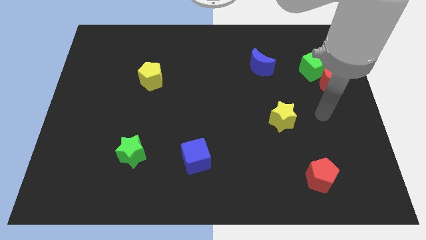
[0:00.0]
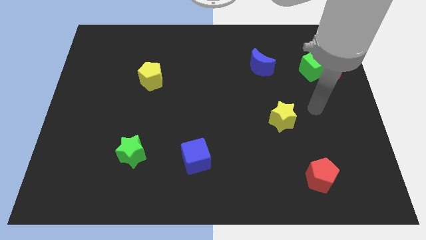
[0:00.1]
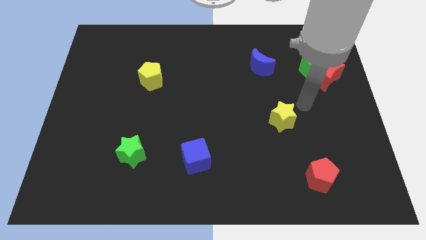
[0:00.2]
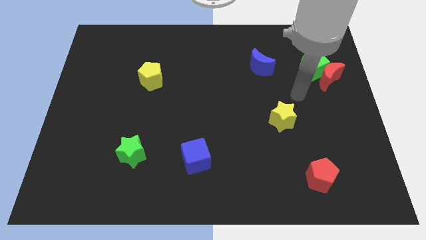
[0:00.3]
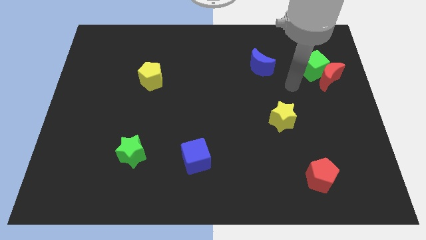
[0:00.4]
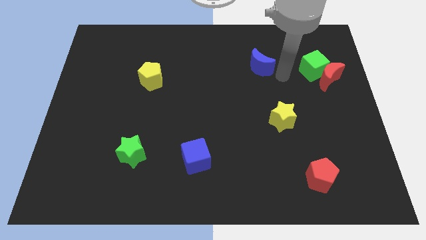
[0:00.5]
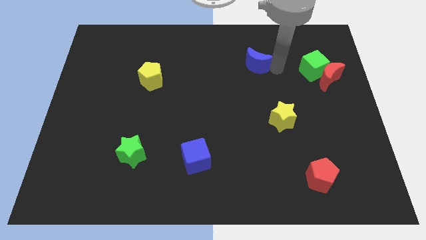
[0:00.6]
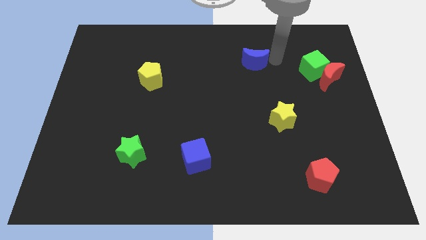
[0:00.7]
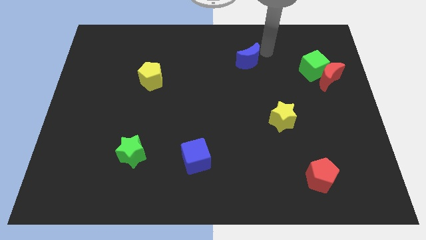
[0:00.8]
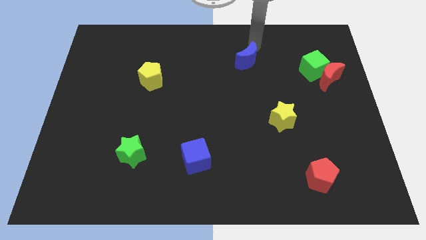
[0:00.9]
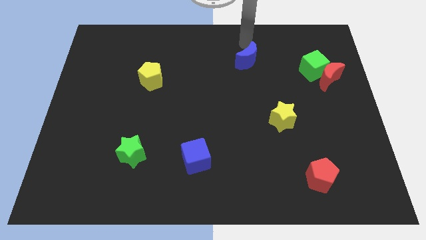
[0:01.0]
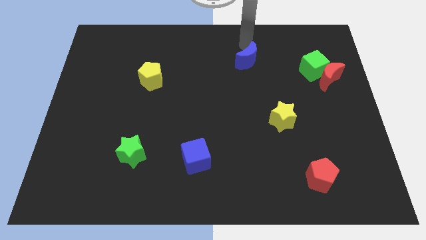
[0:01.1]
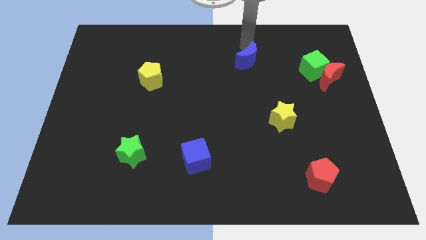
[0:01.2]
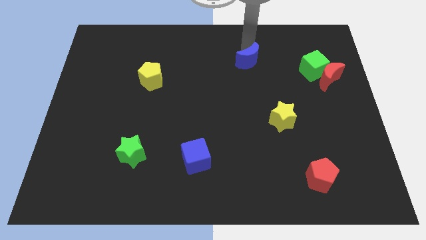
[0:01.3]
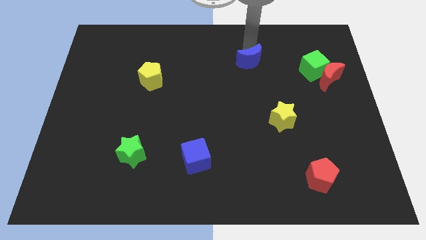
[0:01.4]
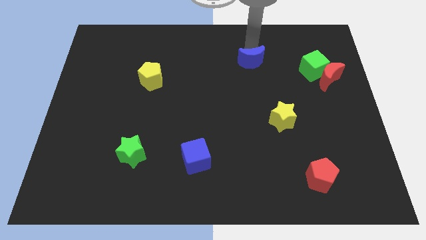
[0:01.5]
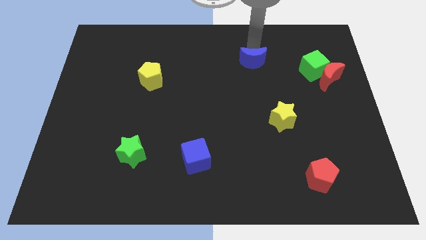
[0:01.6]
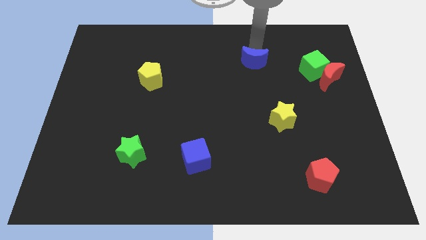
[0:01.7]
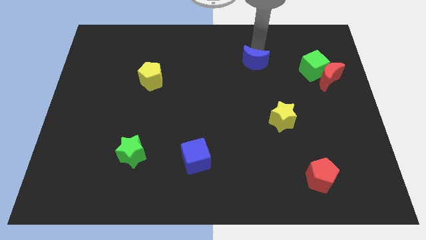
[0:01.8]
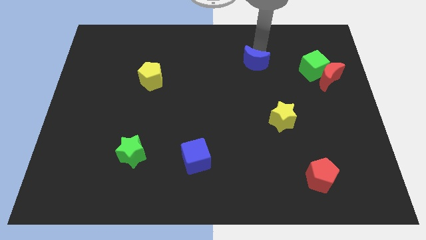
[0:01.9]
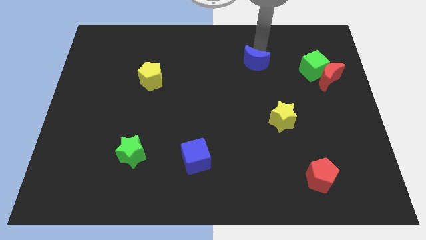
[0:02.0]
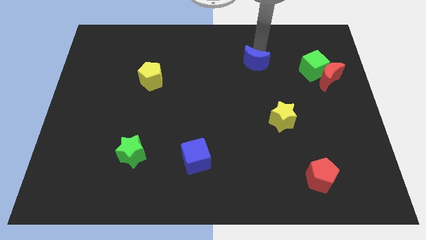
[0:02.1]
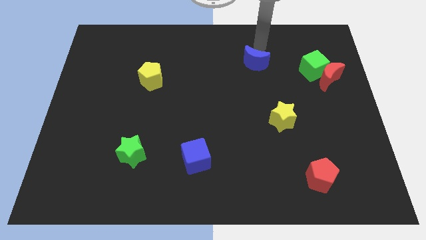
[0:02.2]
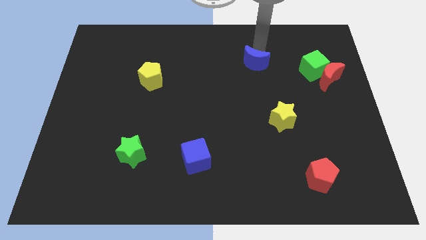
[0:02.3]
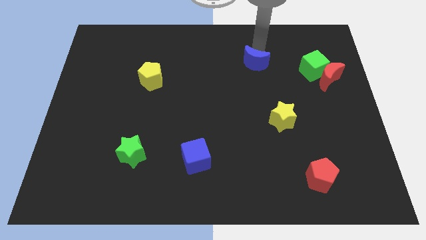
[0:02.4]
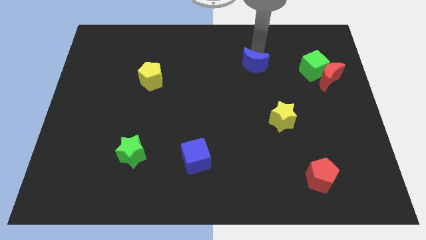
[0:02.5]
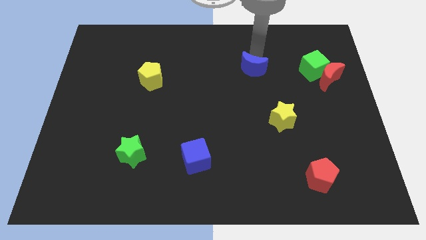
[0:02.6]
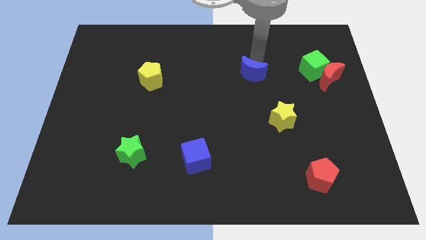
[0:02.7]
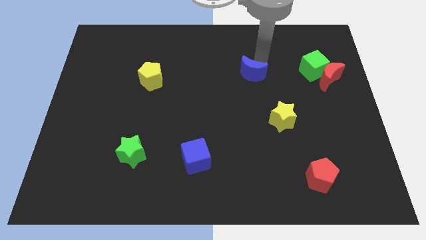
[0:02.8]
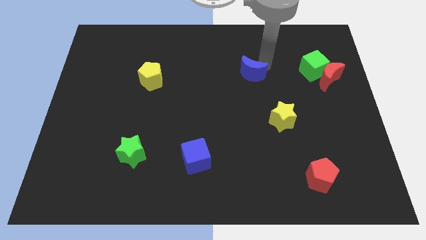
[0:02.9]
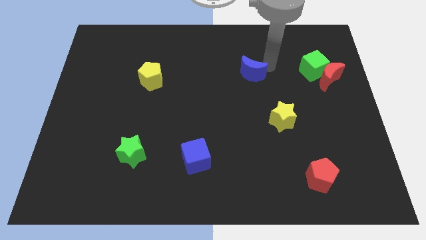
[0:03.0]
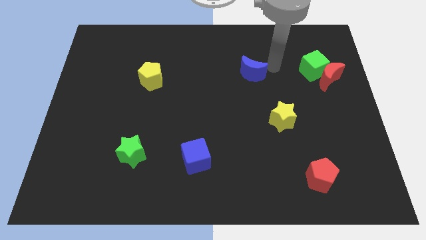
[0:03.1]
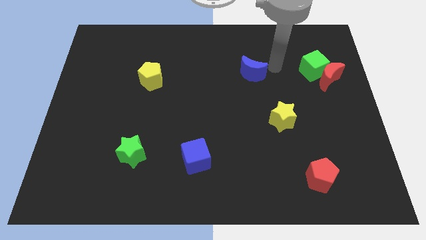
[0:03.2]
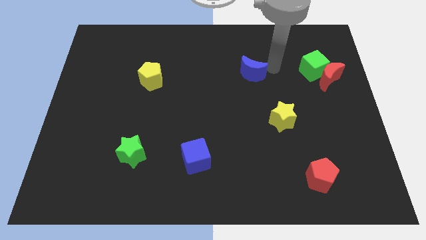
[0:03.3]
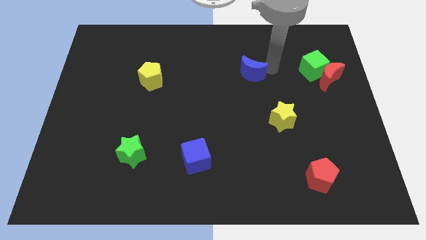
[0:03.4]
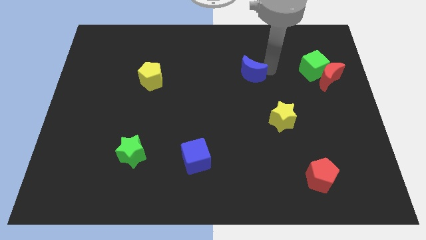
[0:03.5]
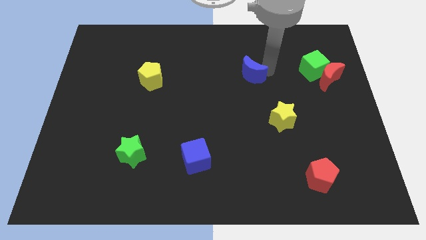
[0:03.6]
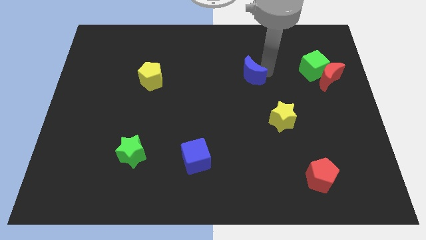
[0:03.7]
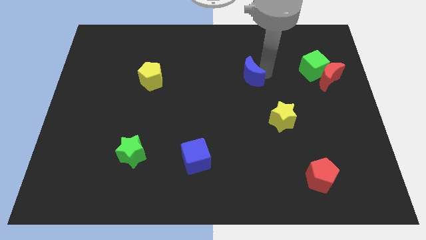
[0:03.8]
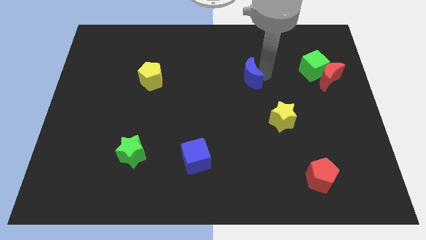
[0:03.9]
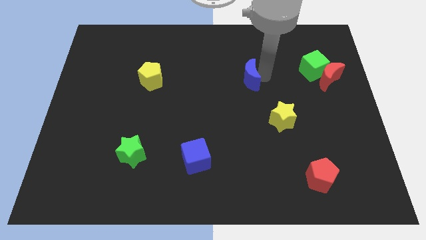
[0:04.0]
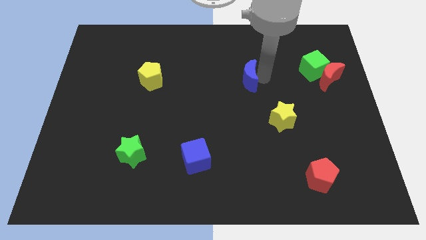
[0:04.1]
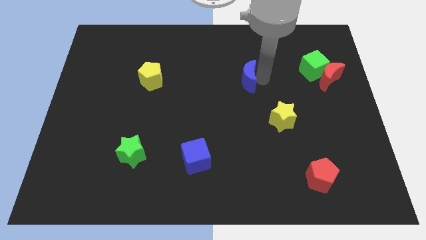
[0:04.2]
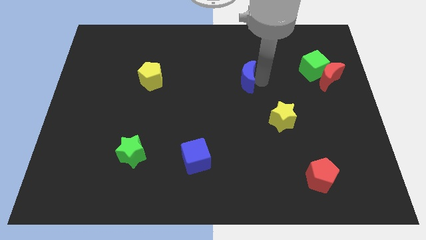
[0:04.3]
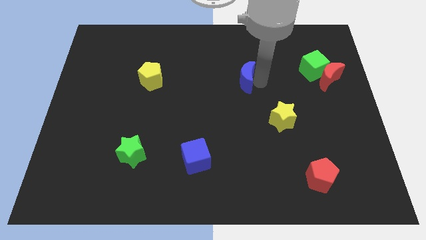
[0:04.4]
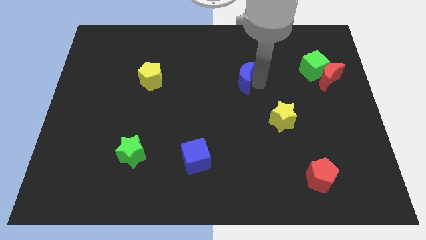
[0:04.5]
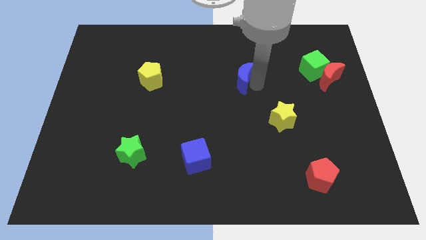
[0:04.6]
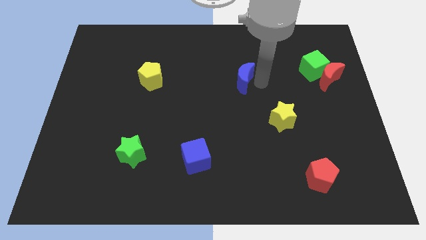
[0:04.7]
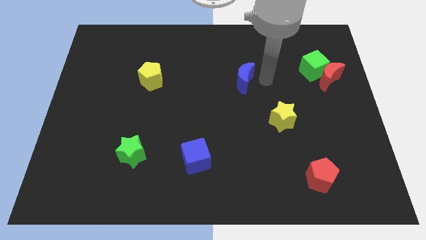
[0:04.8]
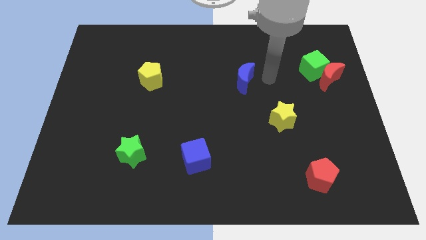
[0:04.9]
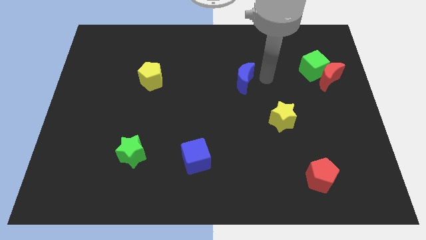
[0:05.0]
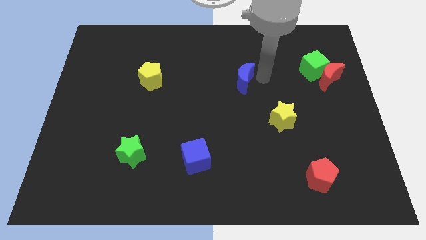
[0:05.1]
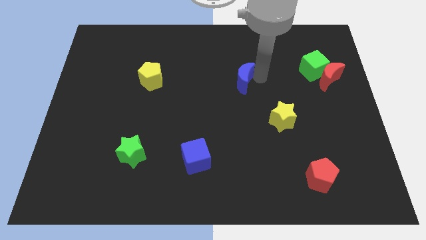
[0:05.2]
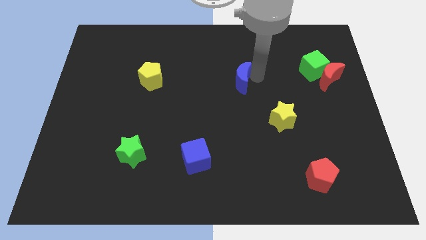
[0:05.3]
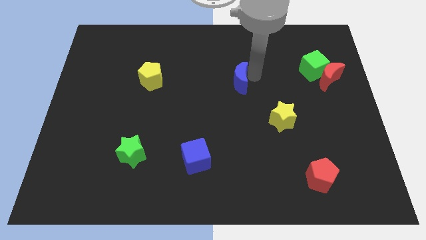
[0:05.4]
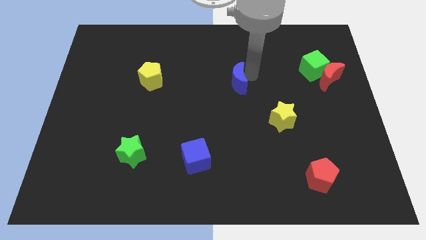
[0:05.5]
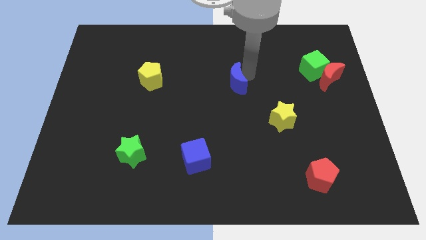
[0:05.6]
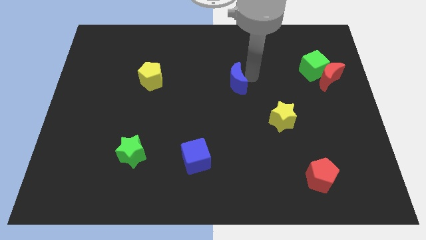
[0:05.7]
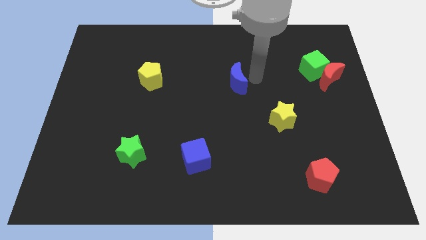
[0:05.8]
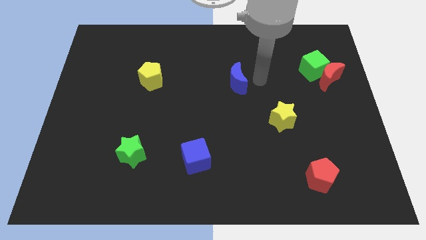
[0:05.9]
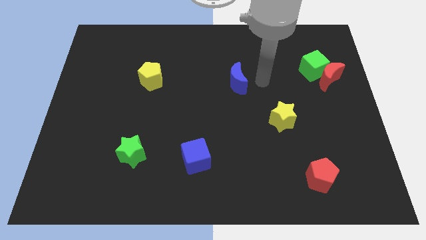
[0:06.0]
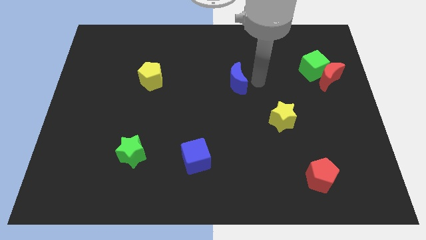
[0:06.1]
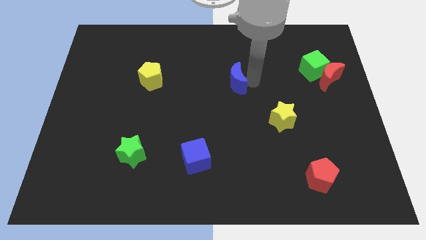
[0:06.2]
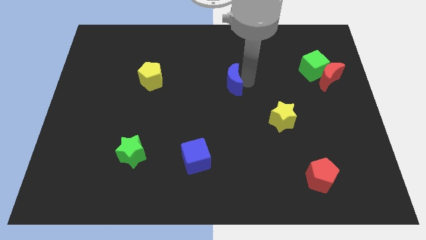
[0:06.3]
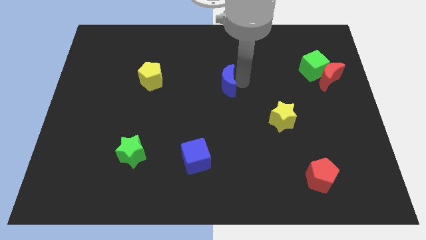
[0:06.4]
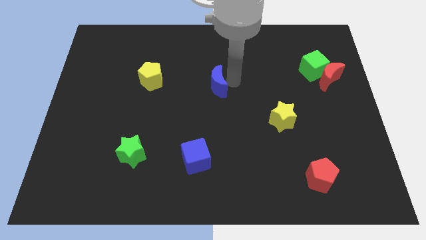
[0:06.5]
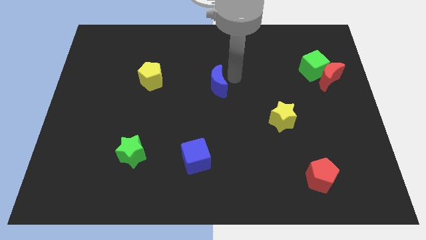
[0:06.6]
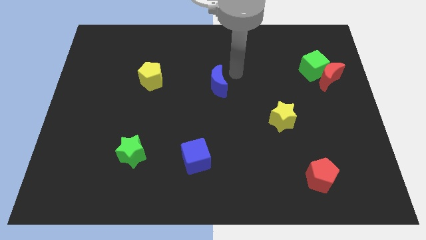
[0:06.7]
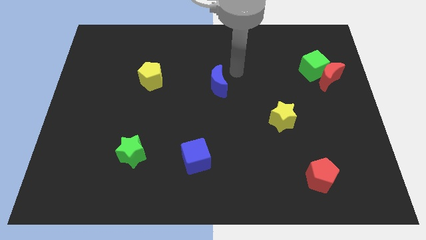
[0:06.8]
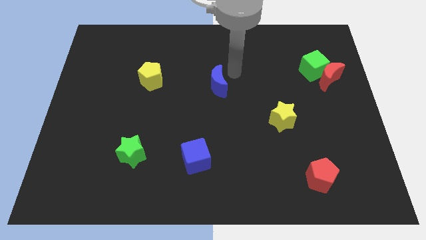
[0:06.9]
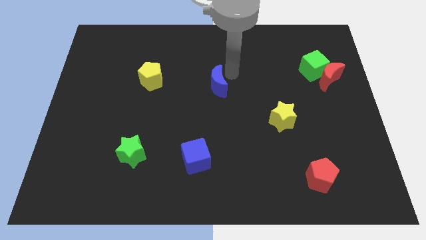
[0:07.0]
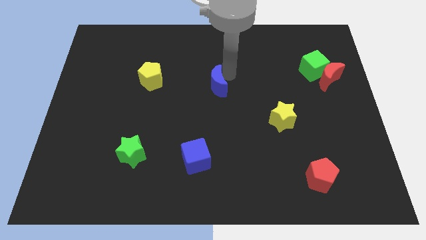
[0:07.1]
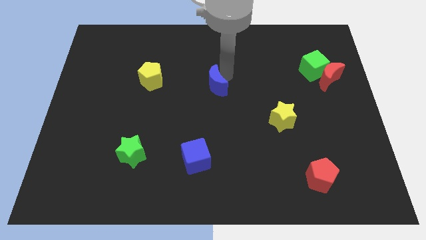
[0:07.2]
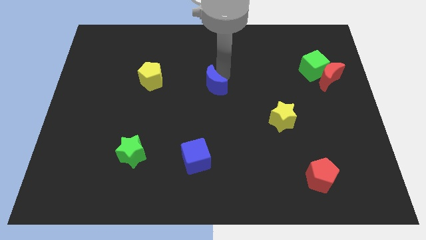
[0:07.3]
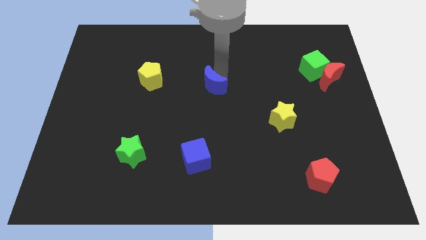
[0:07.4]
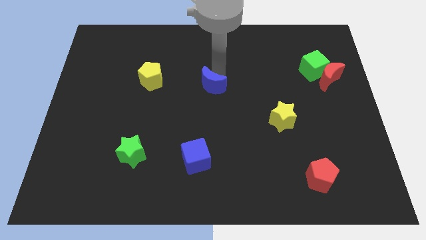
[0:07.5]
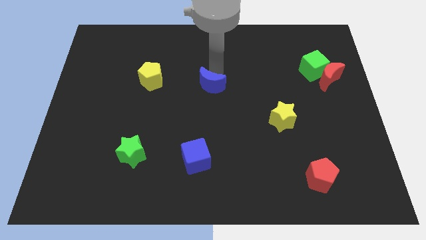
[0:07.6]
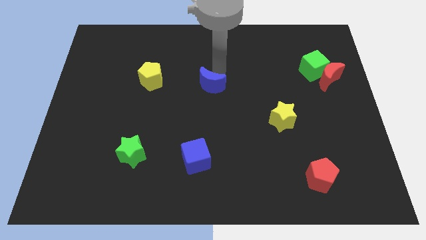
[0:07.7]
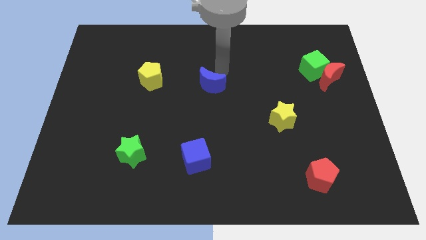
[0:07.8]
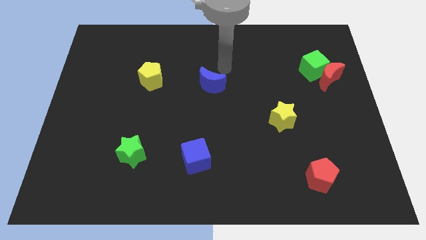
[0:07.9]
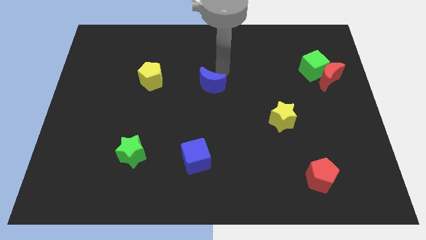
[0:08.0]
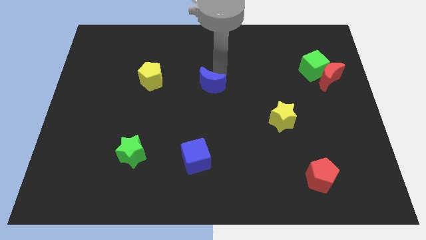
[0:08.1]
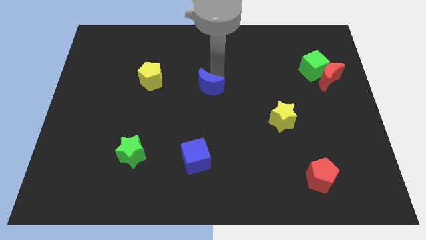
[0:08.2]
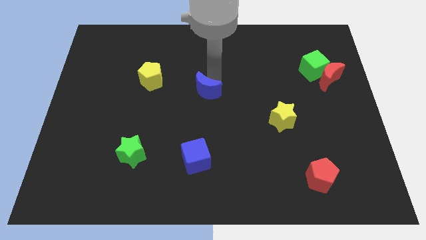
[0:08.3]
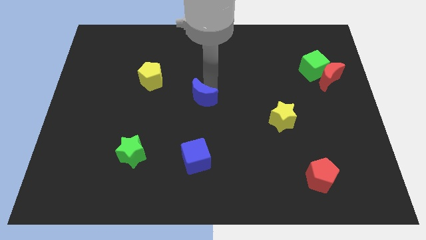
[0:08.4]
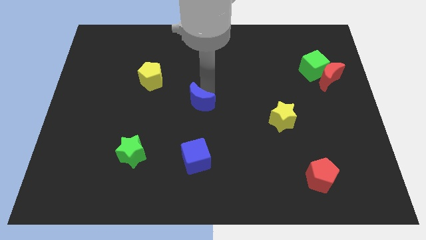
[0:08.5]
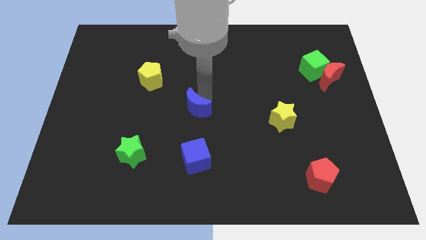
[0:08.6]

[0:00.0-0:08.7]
slide the blue moon down and then to the left
